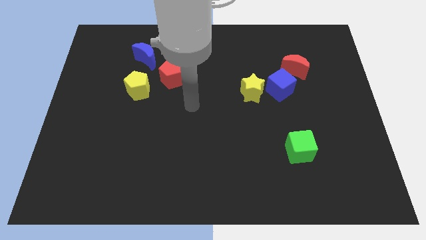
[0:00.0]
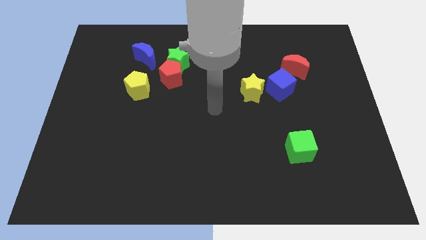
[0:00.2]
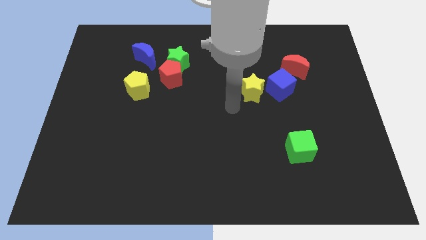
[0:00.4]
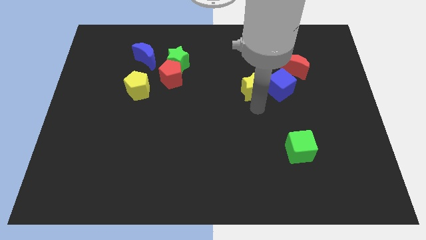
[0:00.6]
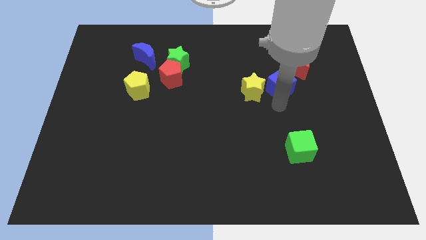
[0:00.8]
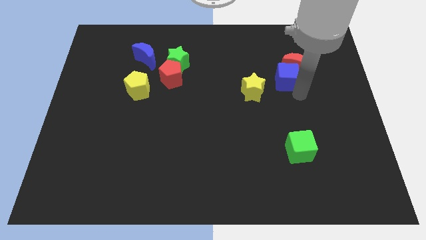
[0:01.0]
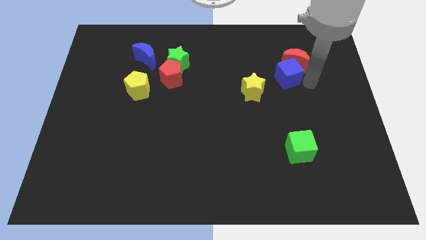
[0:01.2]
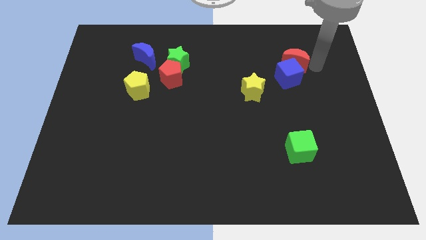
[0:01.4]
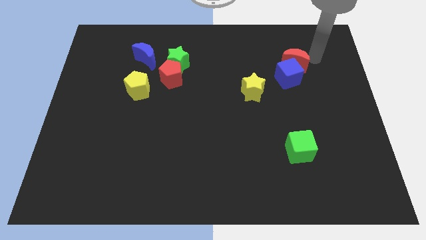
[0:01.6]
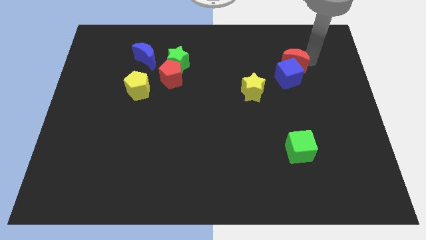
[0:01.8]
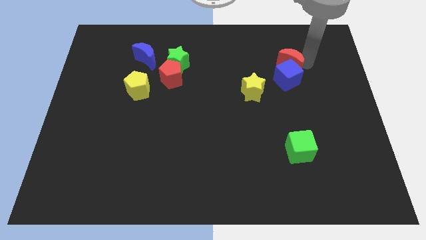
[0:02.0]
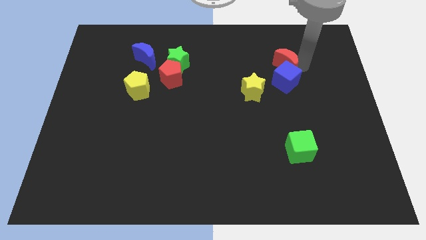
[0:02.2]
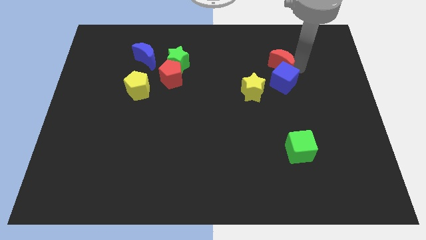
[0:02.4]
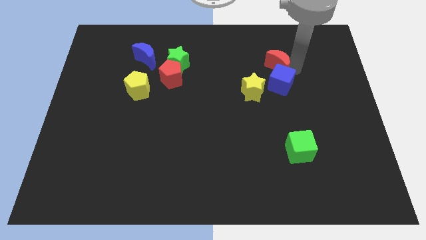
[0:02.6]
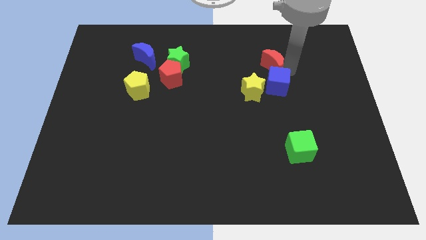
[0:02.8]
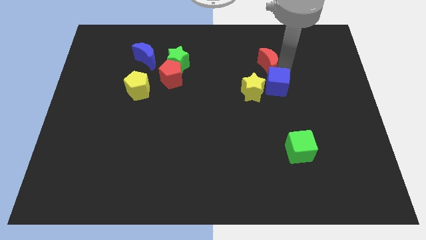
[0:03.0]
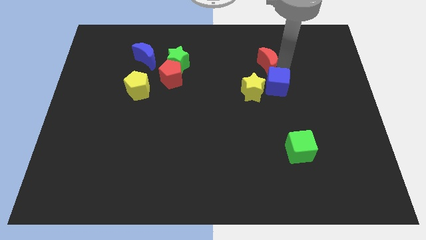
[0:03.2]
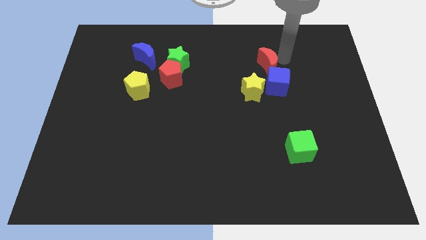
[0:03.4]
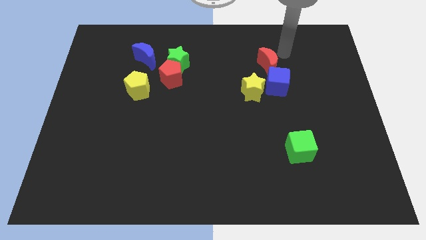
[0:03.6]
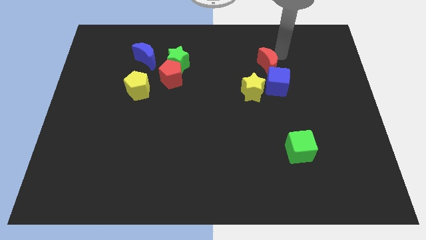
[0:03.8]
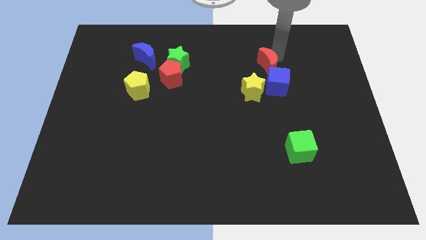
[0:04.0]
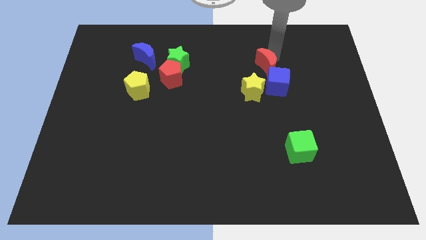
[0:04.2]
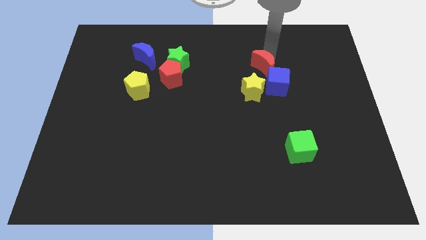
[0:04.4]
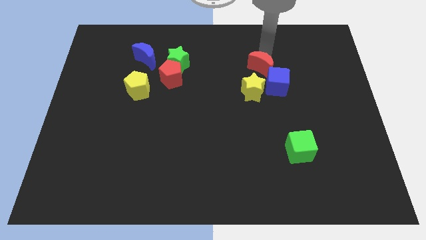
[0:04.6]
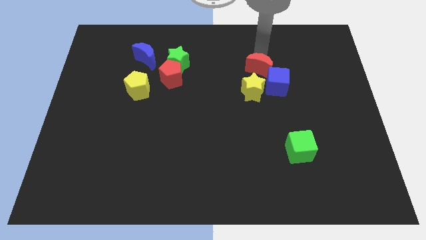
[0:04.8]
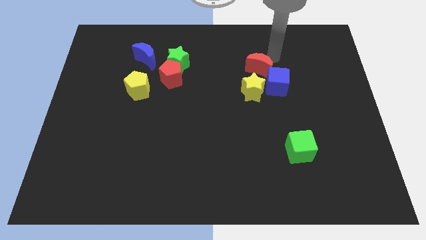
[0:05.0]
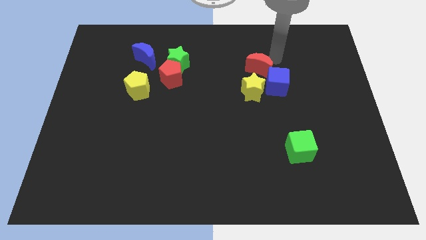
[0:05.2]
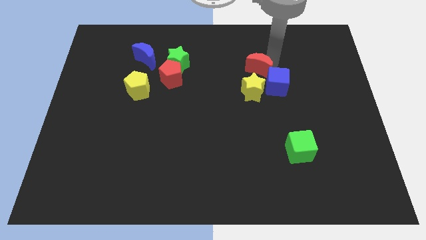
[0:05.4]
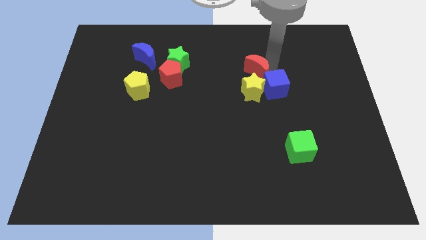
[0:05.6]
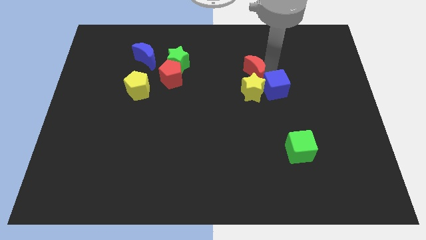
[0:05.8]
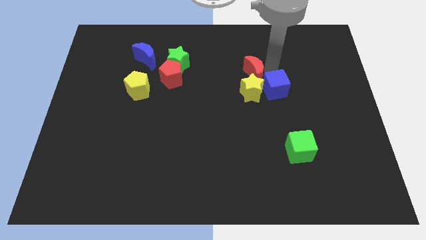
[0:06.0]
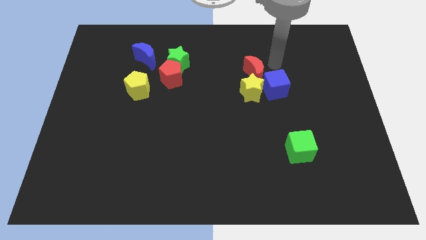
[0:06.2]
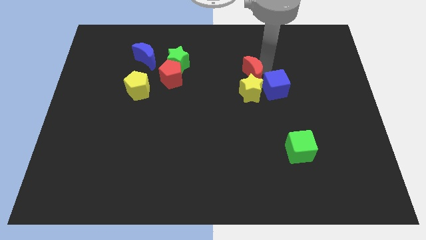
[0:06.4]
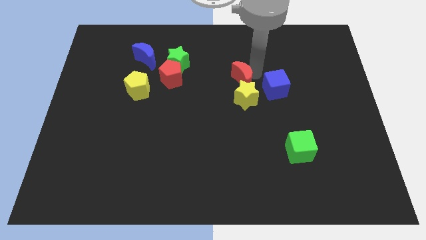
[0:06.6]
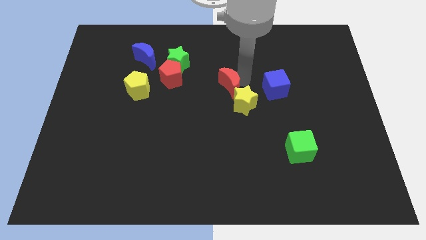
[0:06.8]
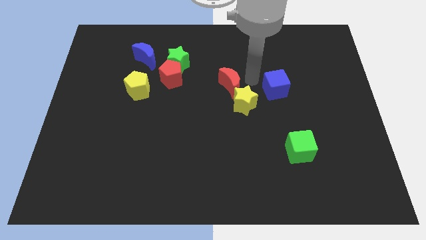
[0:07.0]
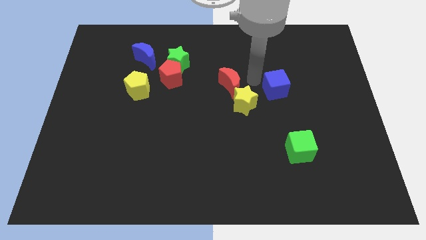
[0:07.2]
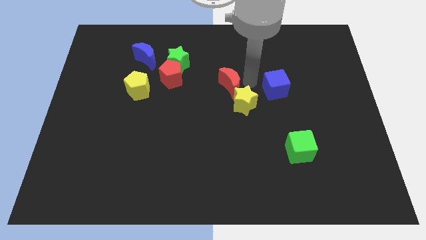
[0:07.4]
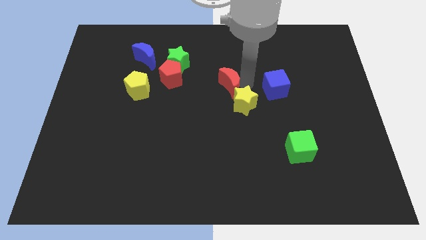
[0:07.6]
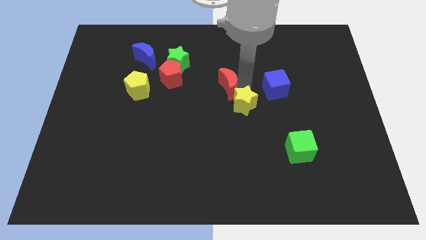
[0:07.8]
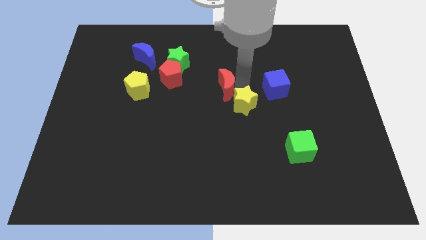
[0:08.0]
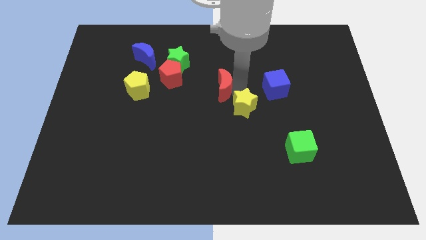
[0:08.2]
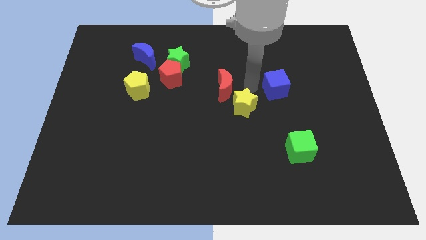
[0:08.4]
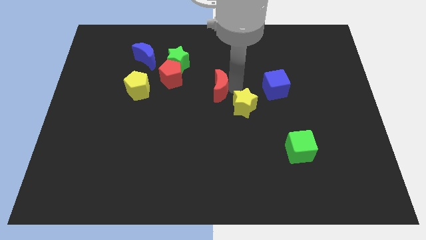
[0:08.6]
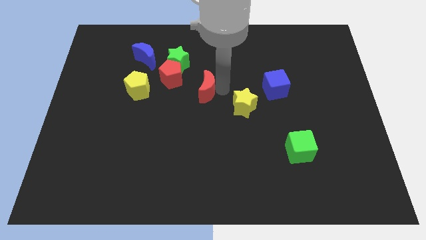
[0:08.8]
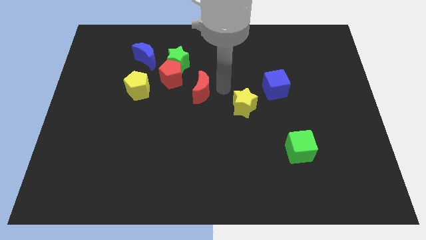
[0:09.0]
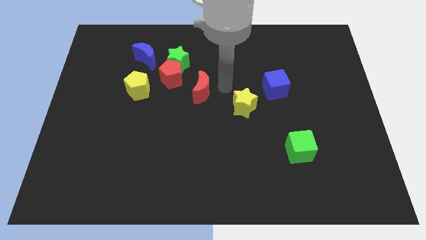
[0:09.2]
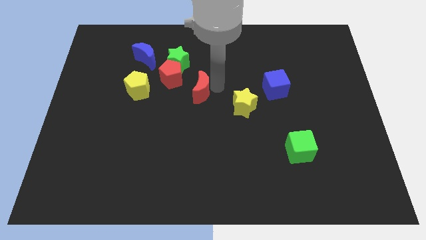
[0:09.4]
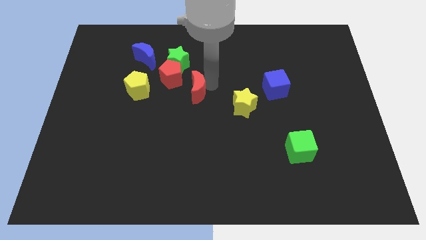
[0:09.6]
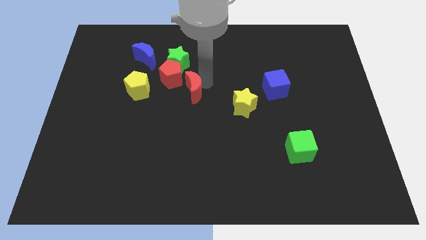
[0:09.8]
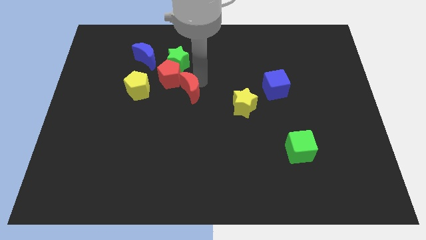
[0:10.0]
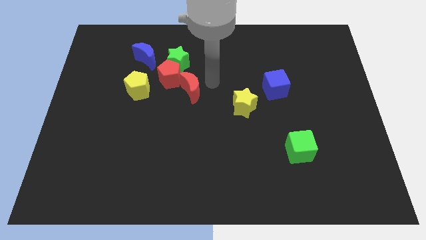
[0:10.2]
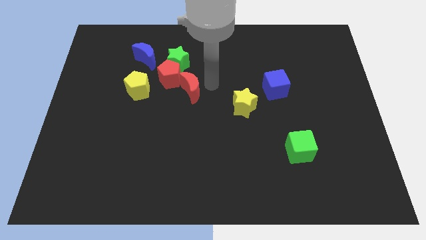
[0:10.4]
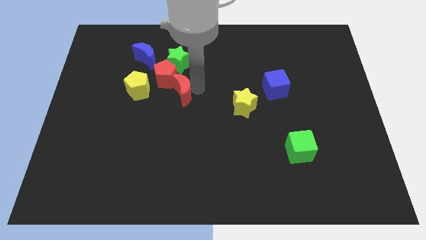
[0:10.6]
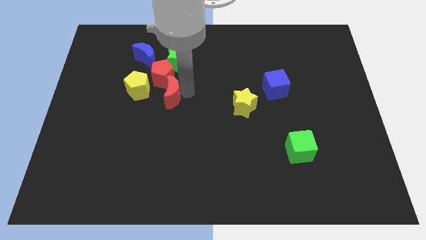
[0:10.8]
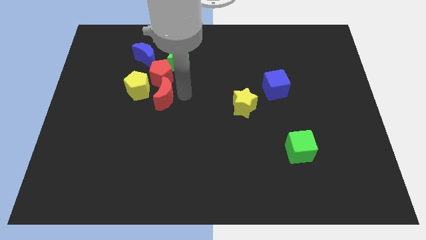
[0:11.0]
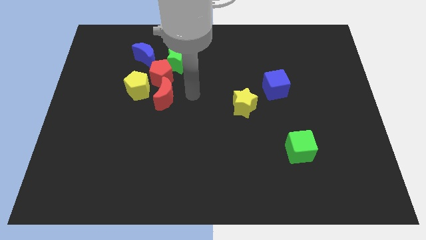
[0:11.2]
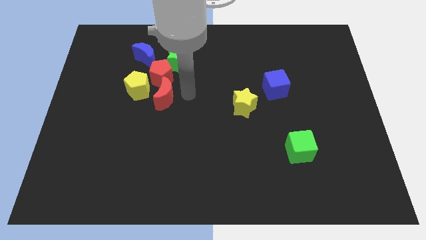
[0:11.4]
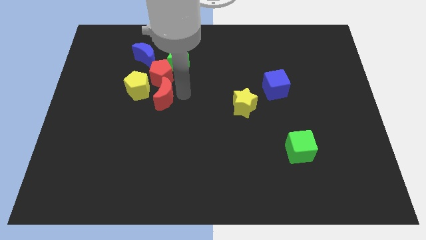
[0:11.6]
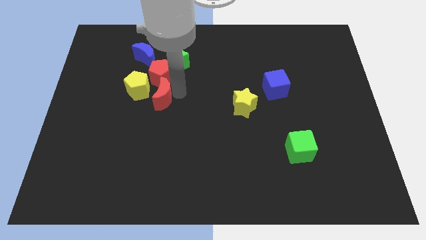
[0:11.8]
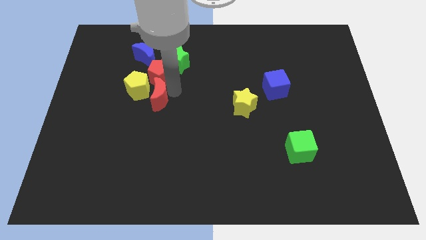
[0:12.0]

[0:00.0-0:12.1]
slide the red moon next to the yellow pentagon

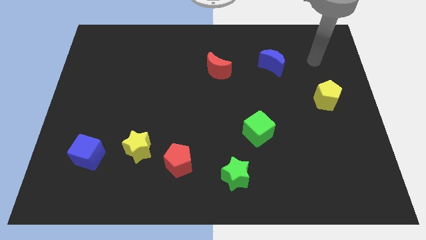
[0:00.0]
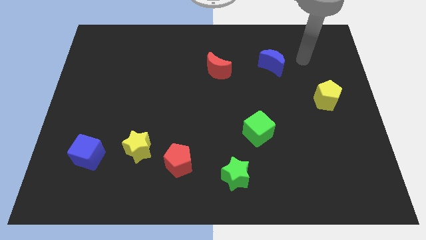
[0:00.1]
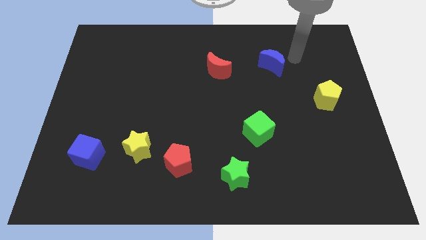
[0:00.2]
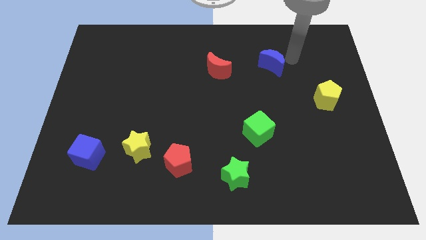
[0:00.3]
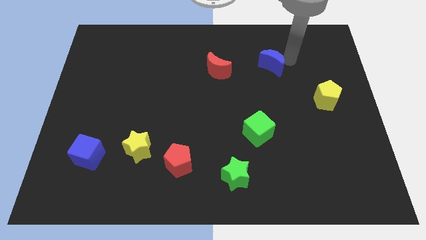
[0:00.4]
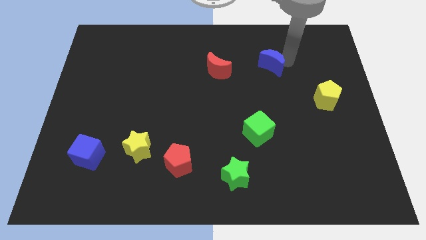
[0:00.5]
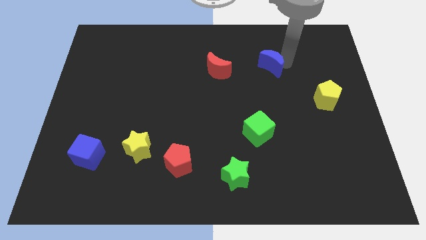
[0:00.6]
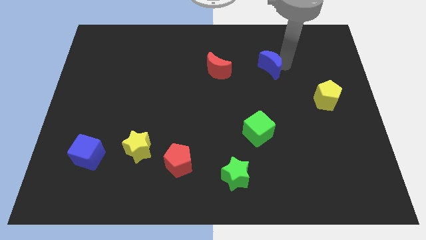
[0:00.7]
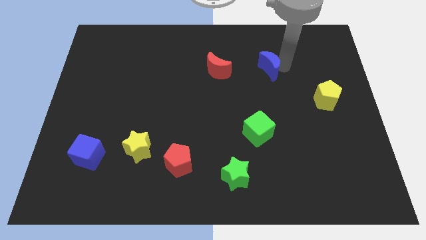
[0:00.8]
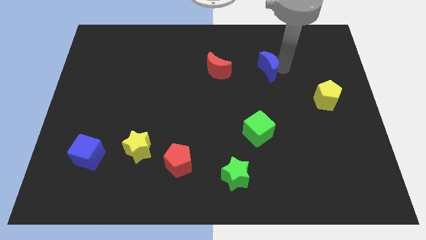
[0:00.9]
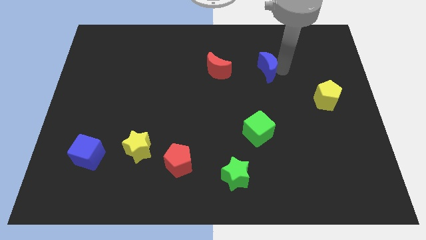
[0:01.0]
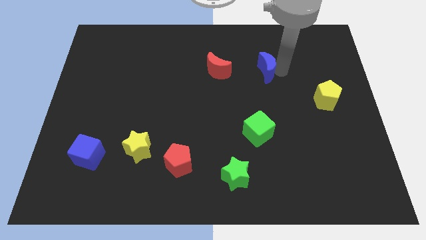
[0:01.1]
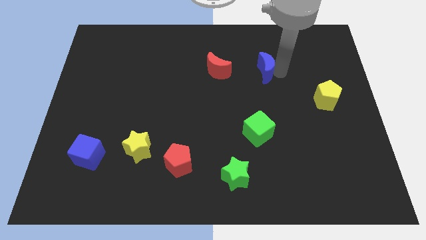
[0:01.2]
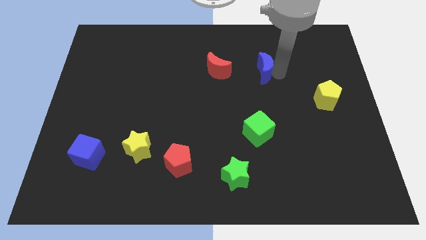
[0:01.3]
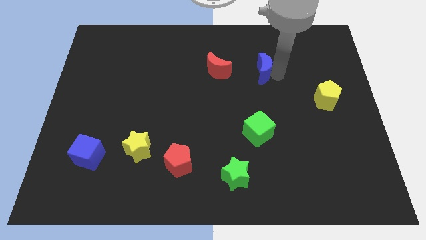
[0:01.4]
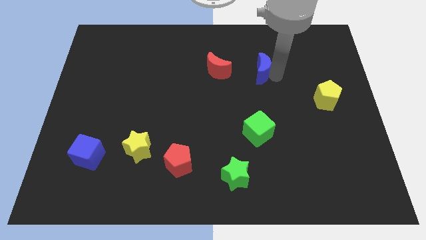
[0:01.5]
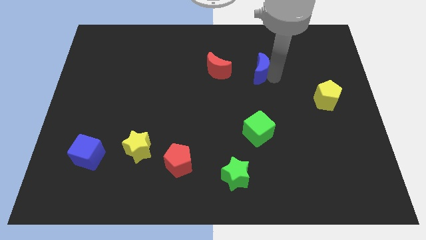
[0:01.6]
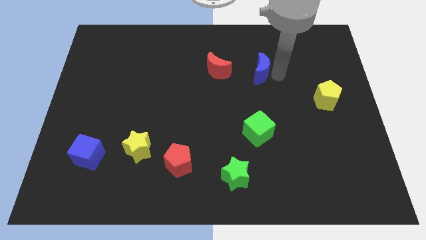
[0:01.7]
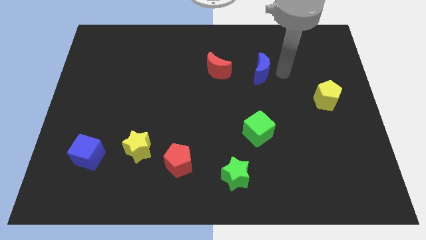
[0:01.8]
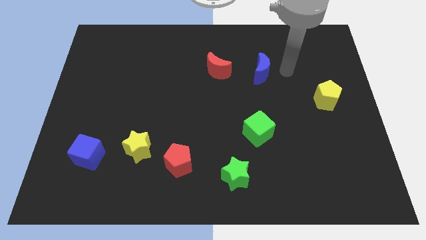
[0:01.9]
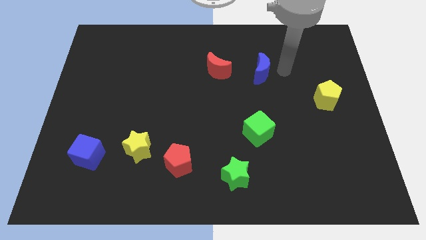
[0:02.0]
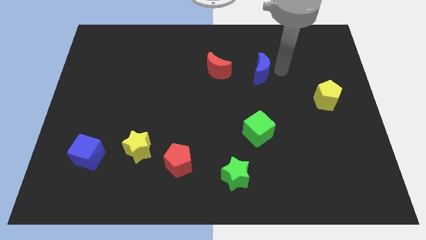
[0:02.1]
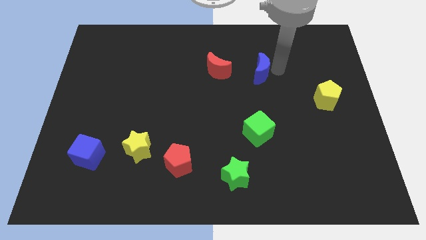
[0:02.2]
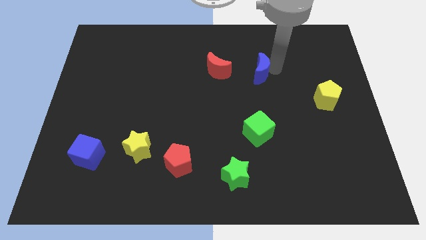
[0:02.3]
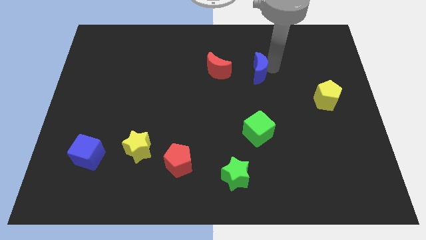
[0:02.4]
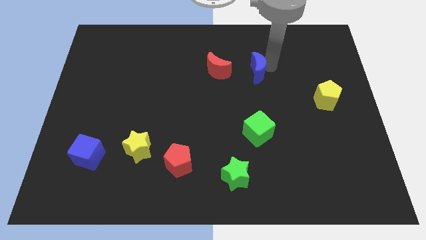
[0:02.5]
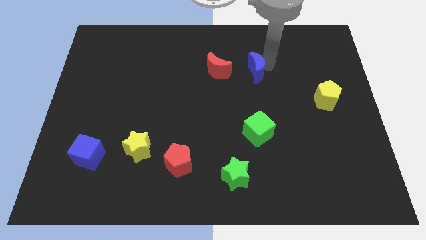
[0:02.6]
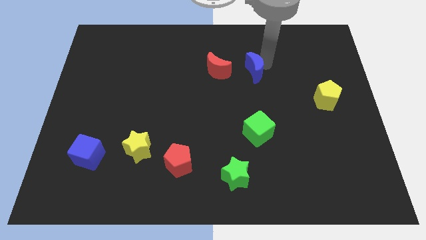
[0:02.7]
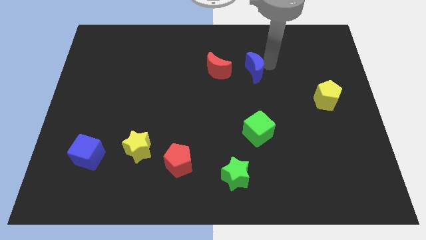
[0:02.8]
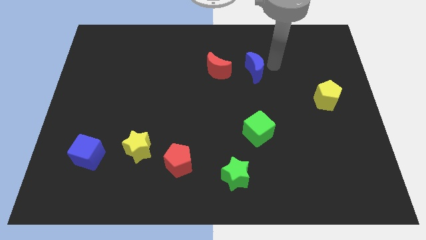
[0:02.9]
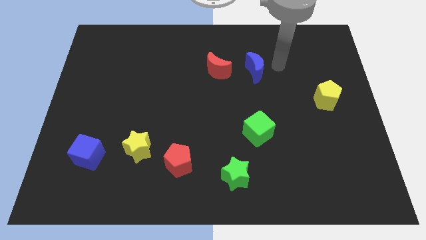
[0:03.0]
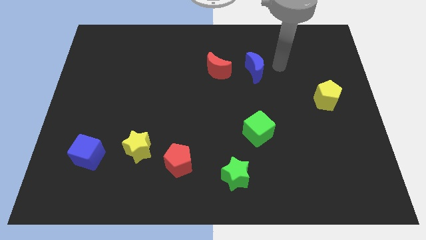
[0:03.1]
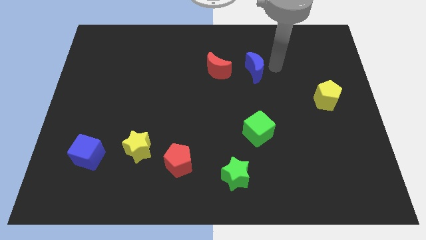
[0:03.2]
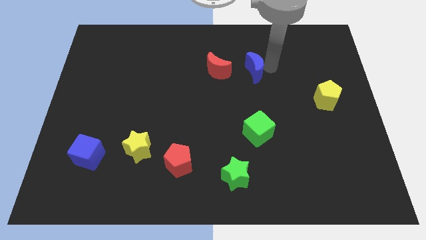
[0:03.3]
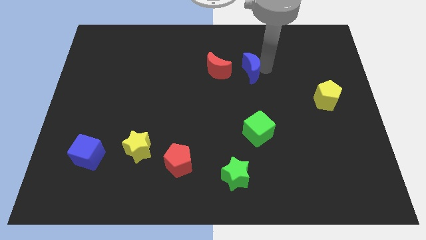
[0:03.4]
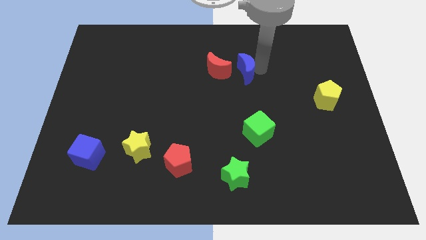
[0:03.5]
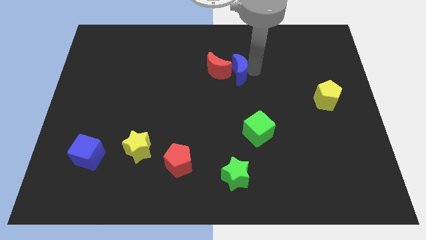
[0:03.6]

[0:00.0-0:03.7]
push the blue moon next to the red moon
